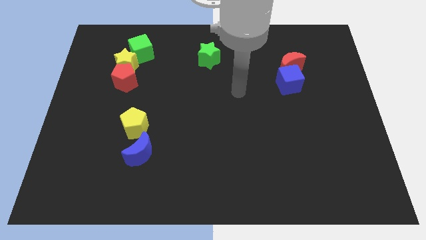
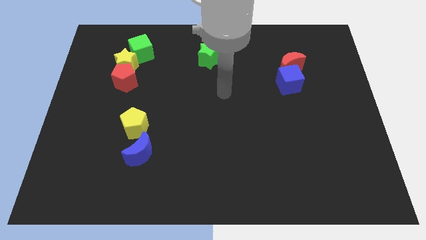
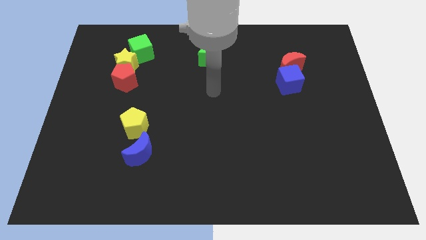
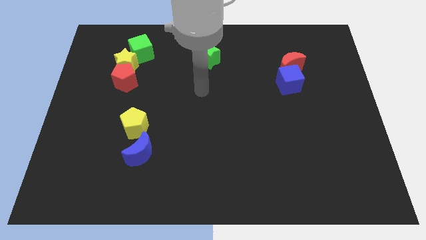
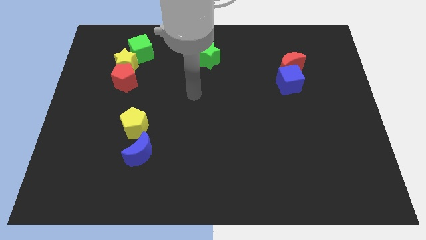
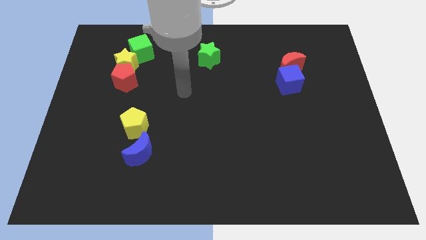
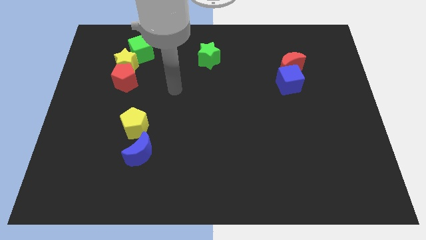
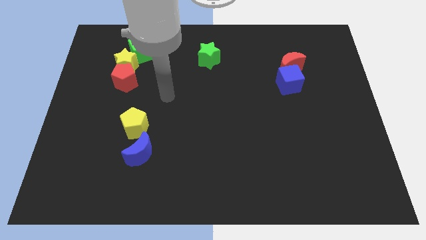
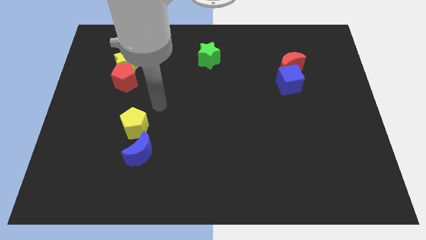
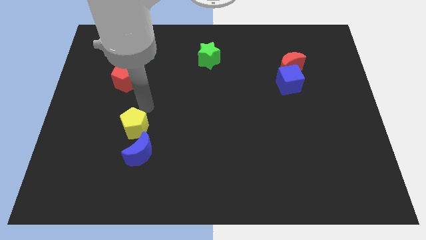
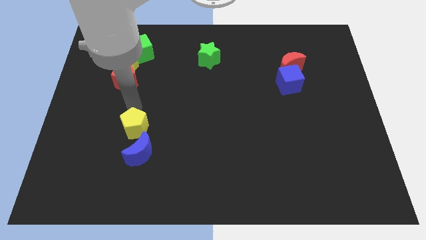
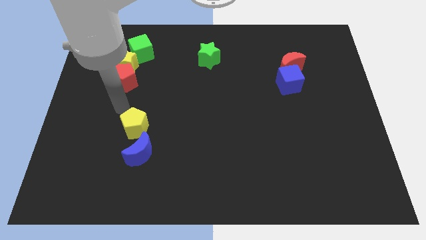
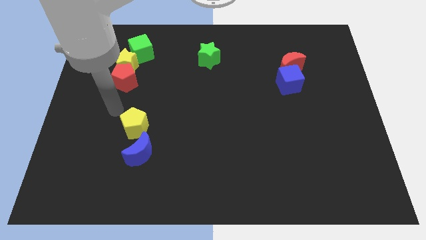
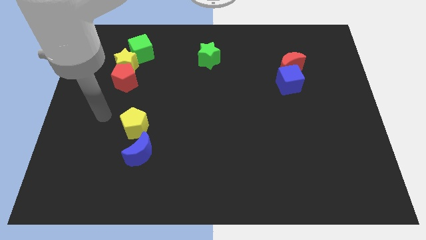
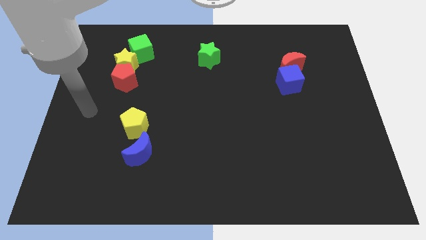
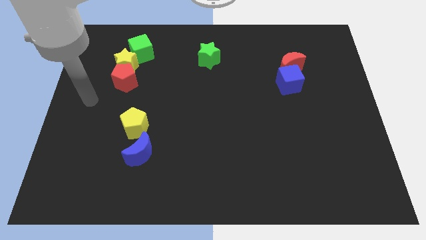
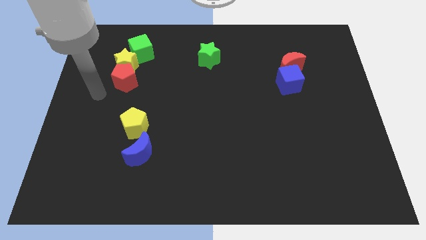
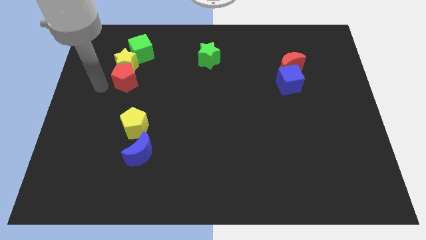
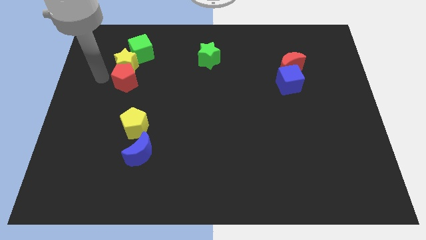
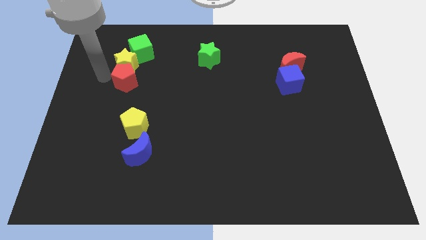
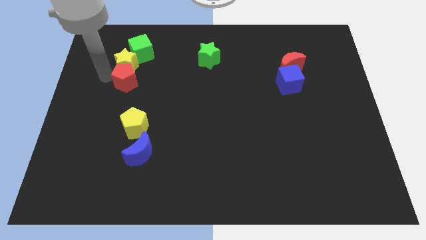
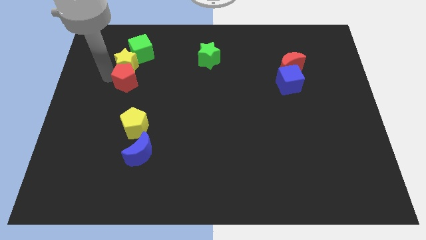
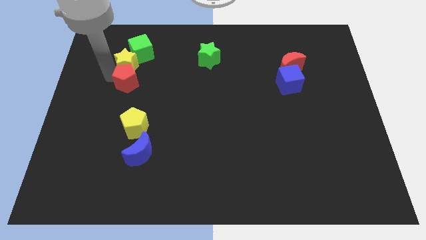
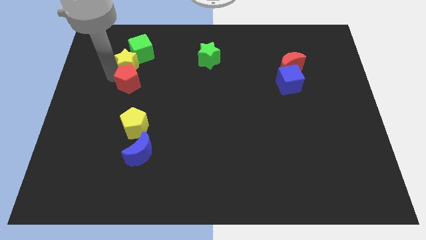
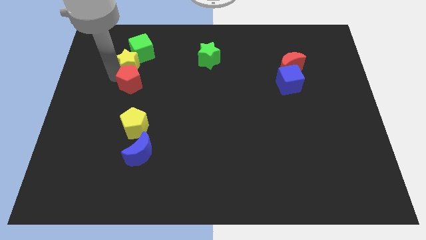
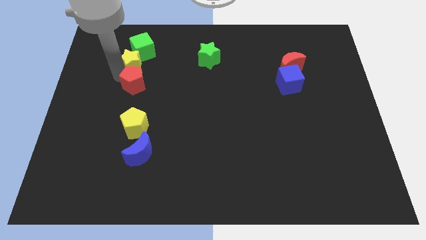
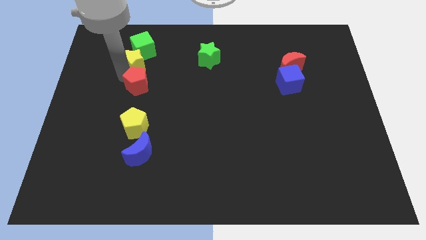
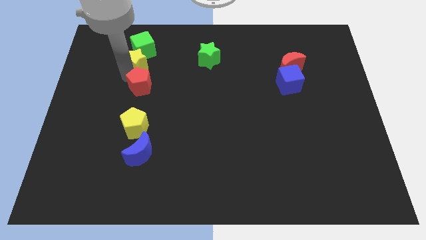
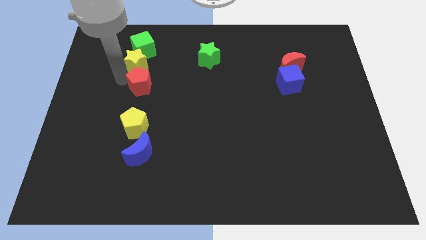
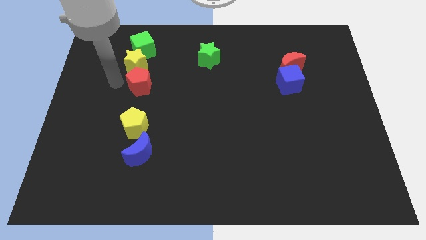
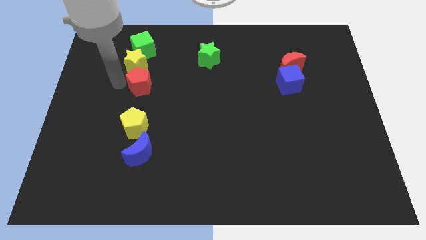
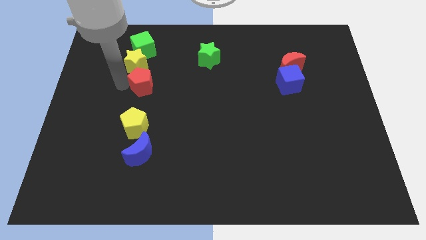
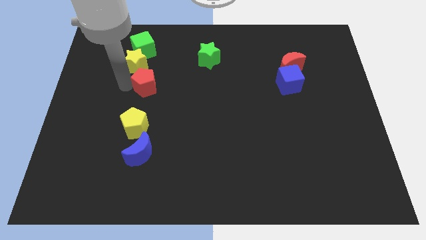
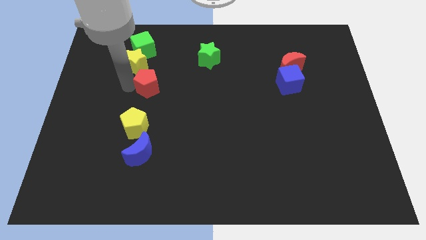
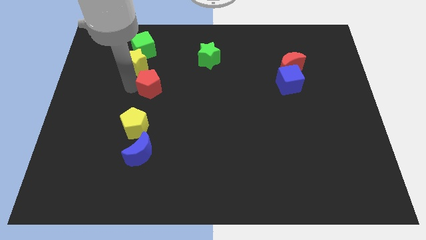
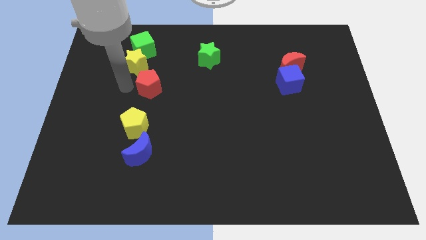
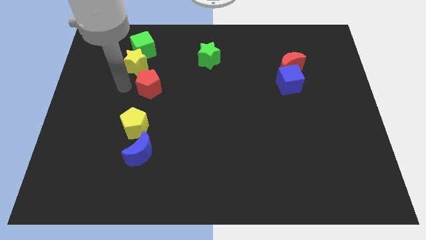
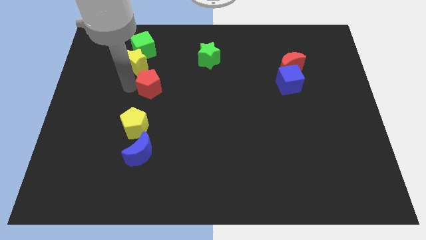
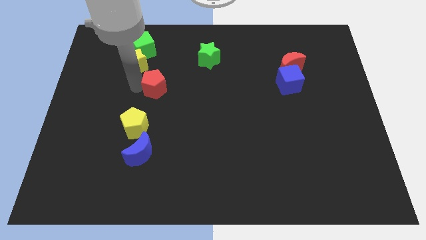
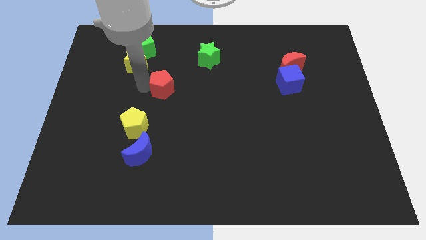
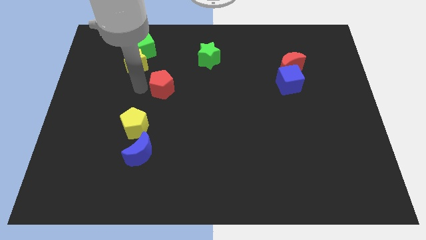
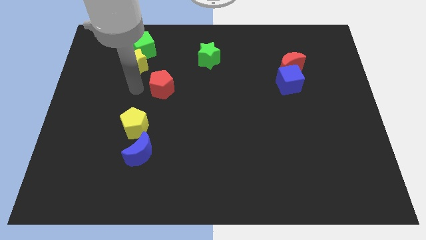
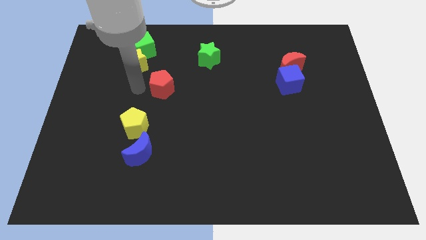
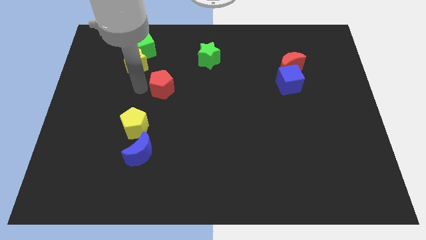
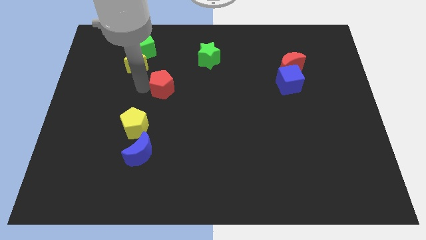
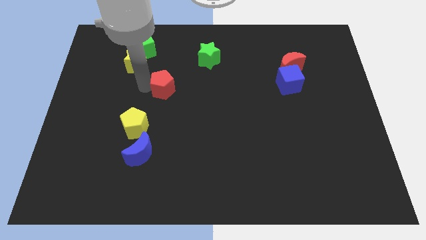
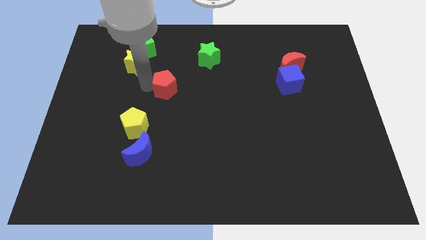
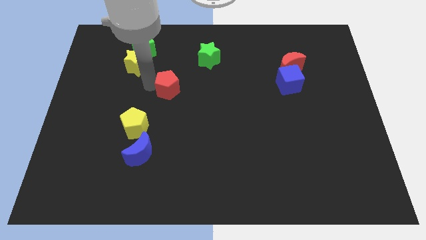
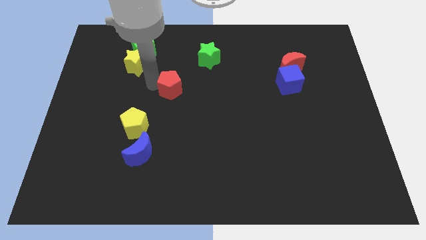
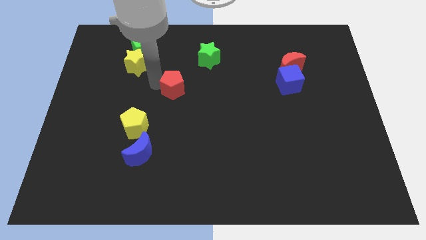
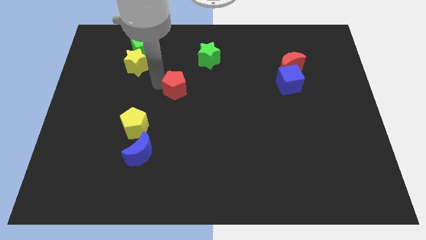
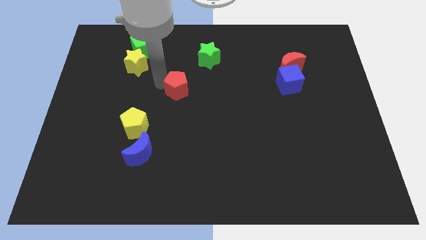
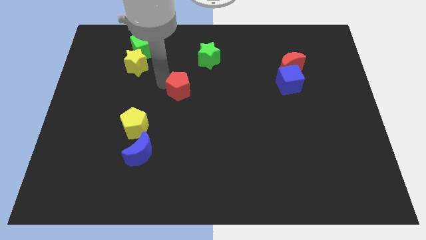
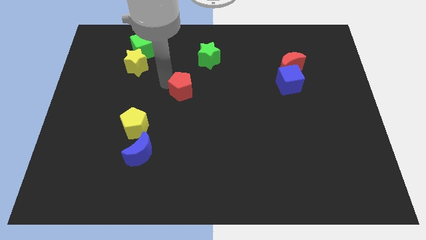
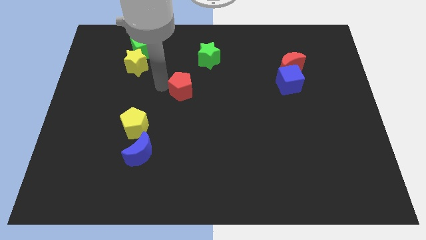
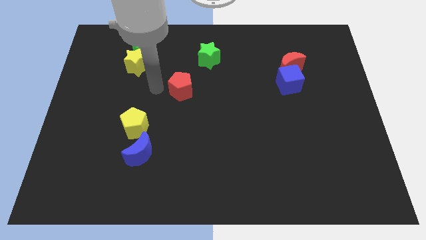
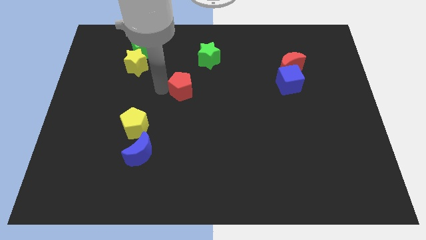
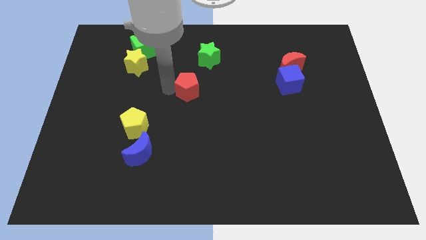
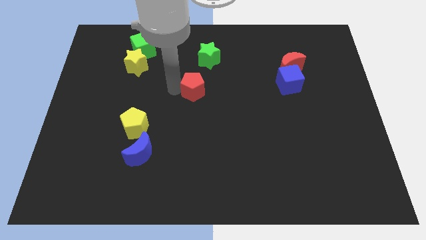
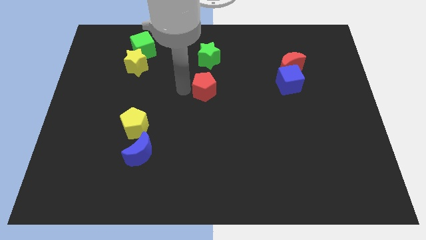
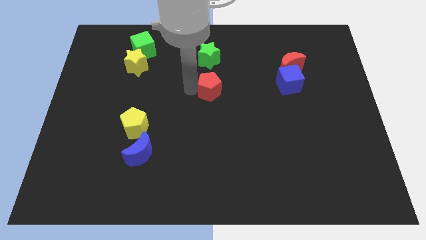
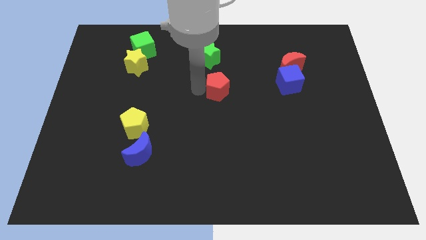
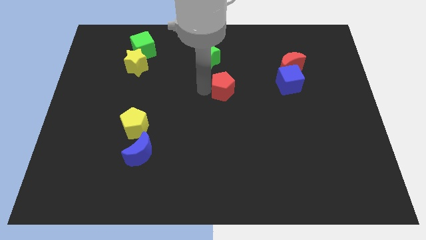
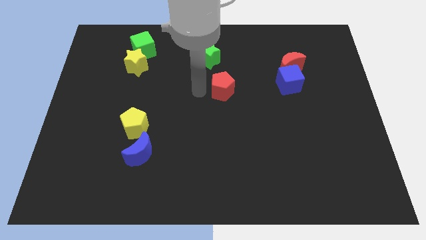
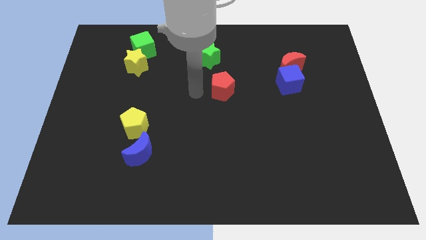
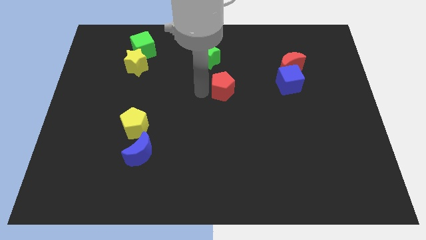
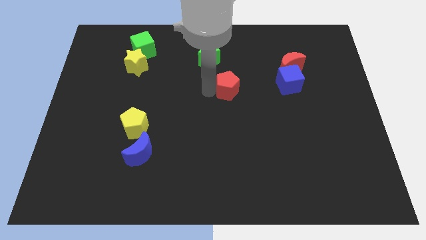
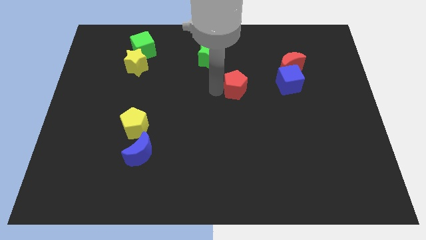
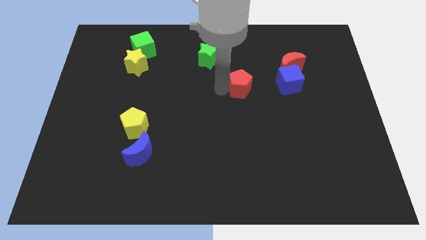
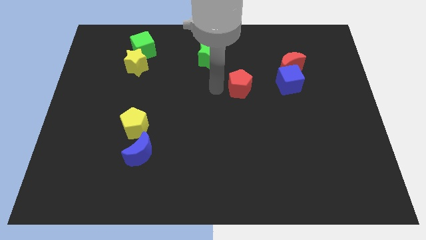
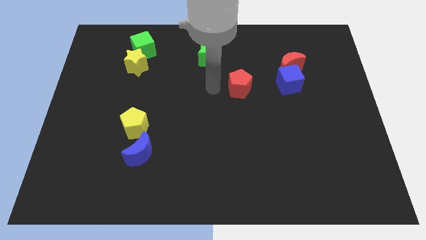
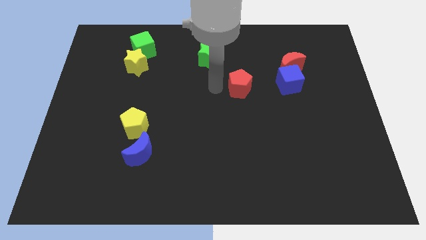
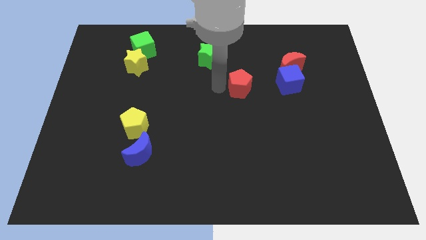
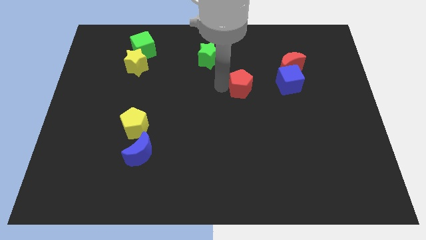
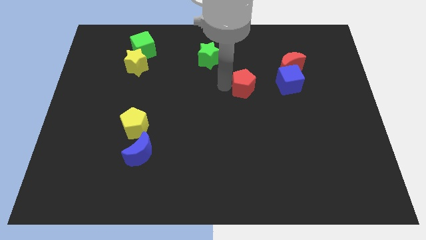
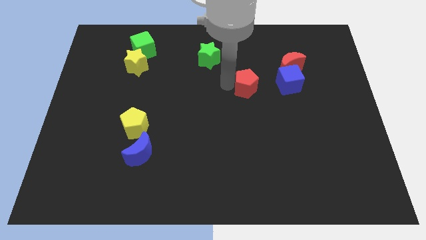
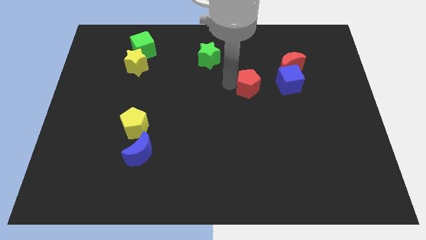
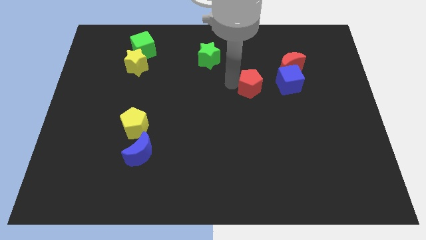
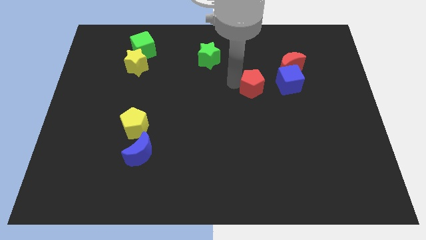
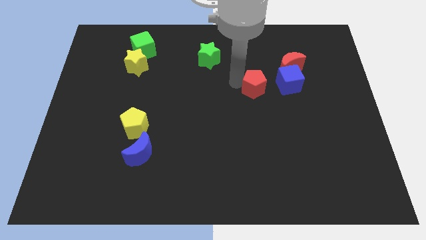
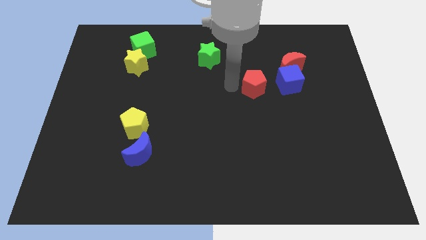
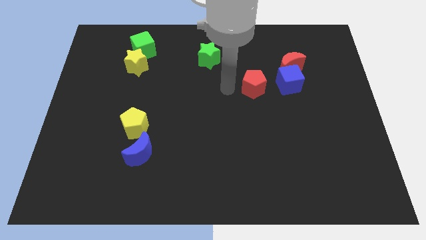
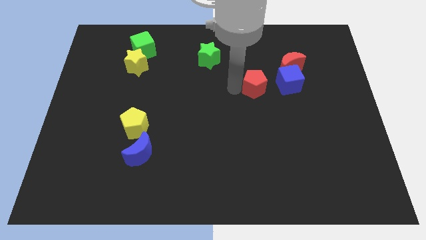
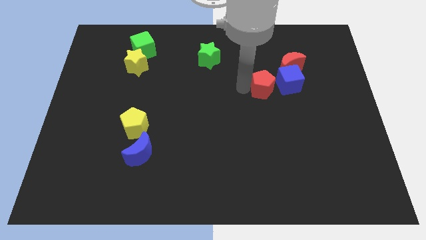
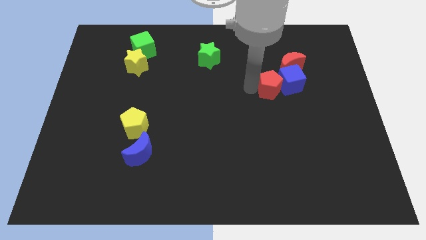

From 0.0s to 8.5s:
put the red pentagon towards the blue cube
